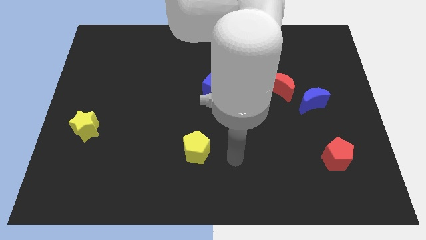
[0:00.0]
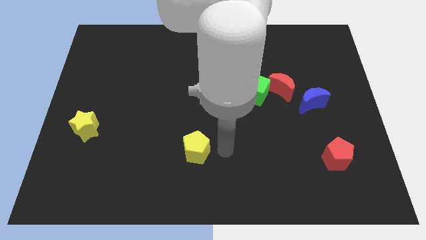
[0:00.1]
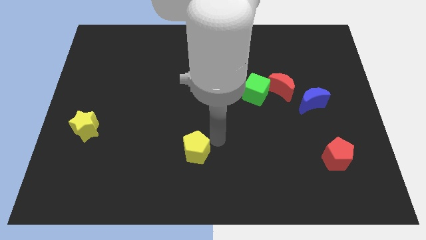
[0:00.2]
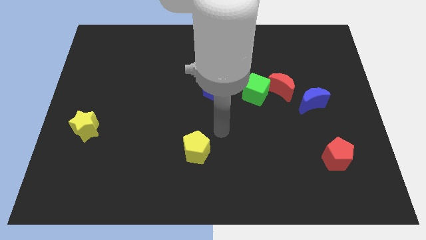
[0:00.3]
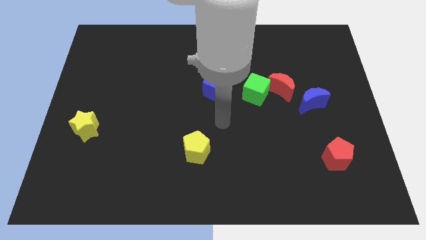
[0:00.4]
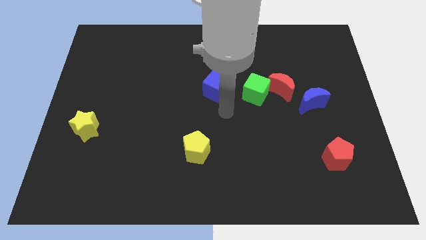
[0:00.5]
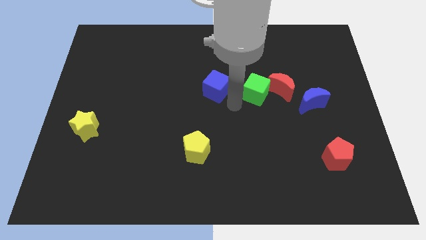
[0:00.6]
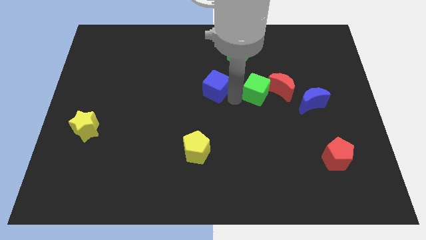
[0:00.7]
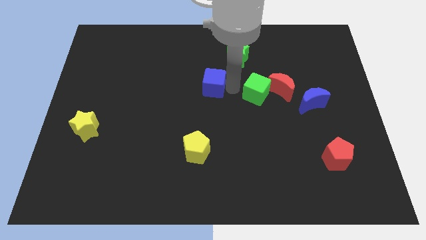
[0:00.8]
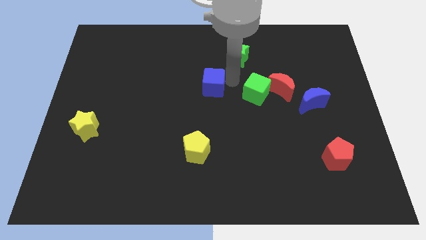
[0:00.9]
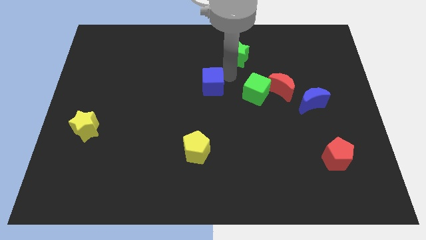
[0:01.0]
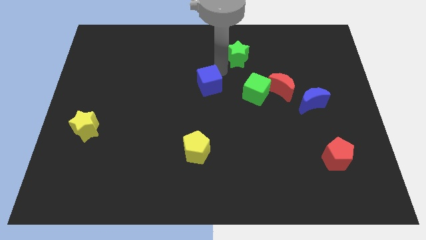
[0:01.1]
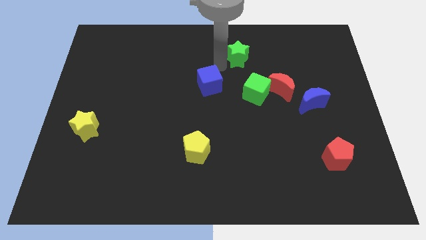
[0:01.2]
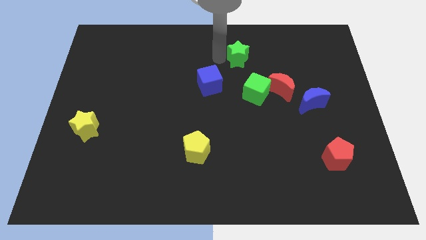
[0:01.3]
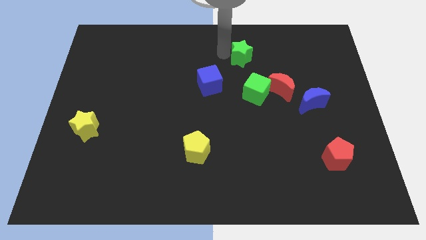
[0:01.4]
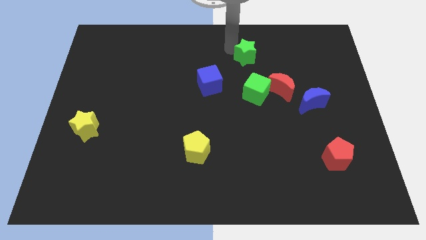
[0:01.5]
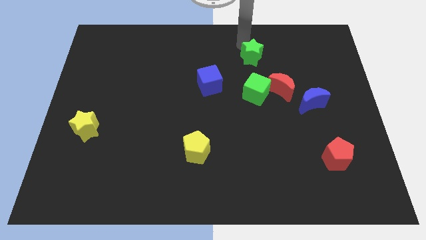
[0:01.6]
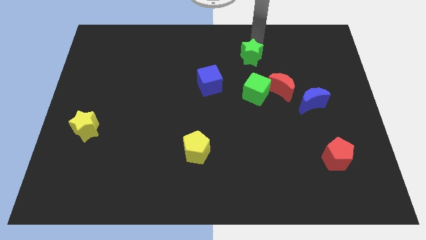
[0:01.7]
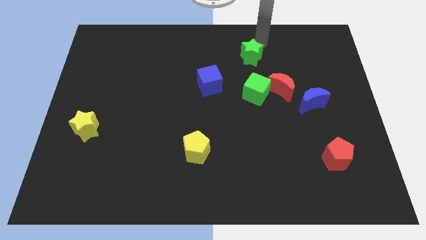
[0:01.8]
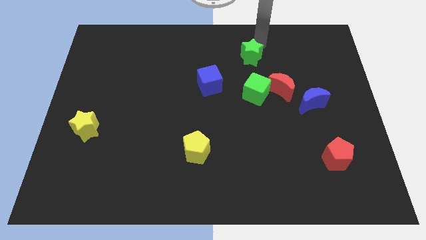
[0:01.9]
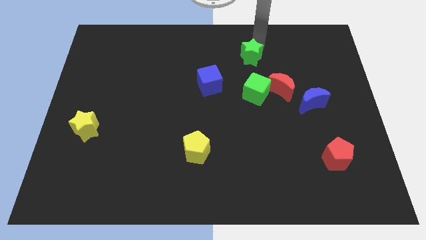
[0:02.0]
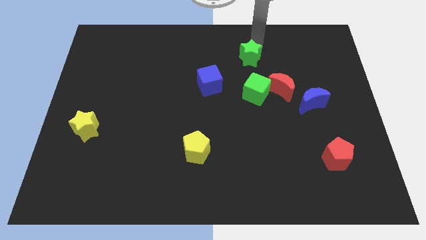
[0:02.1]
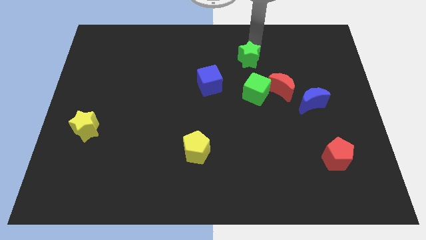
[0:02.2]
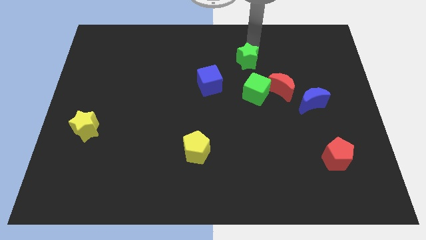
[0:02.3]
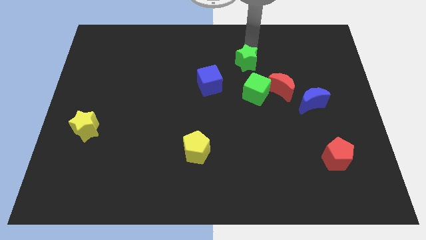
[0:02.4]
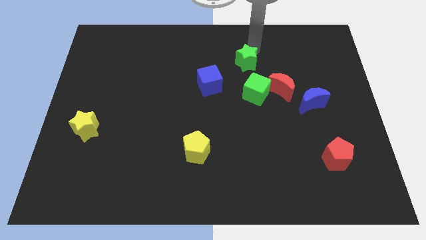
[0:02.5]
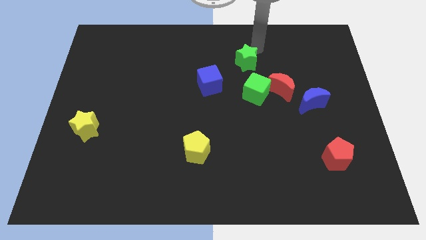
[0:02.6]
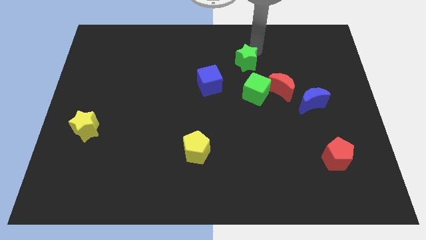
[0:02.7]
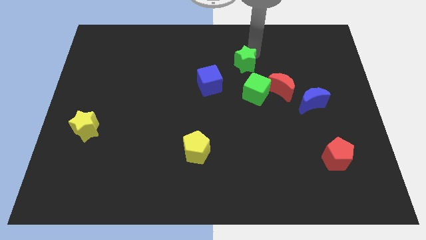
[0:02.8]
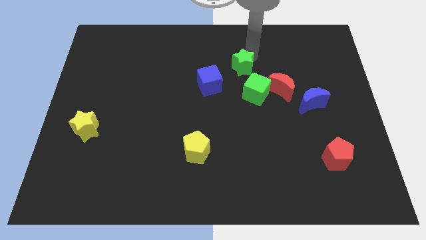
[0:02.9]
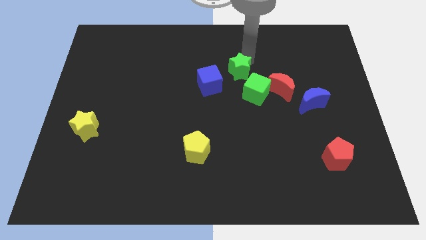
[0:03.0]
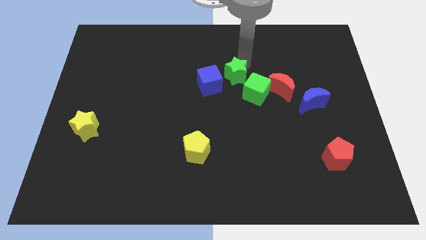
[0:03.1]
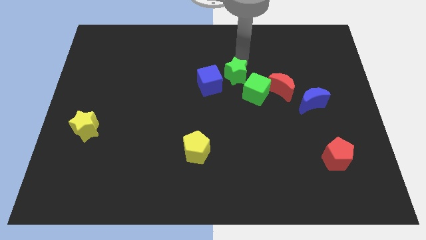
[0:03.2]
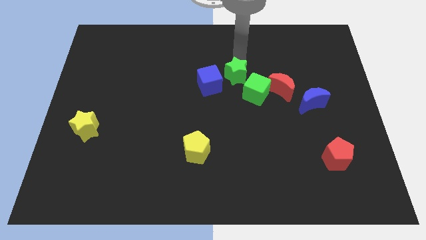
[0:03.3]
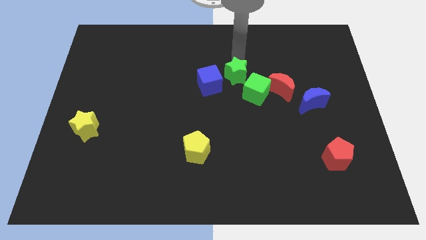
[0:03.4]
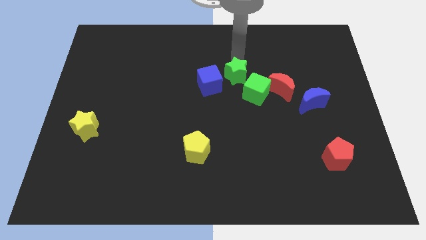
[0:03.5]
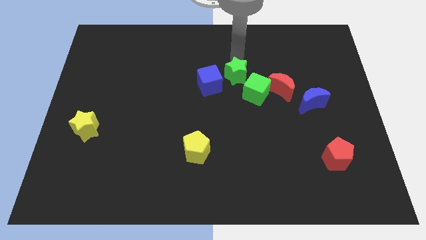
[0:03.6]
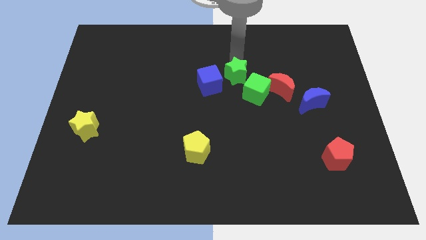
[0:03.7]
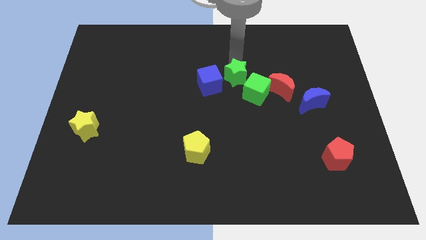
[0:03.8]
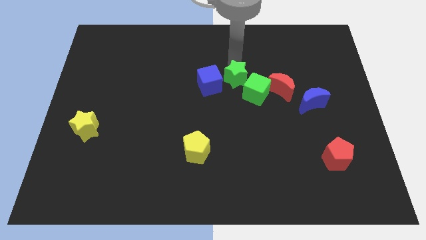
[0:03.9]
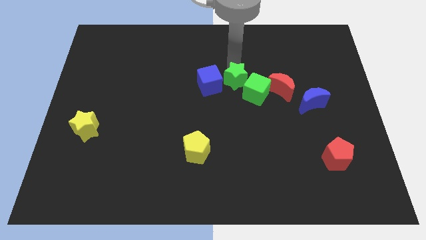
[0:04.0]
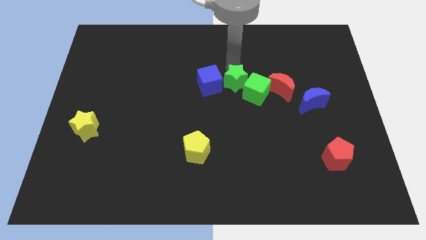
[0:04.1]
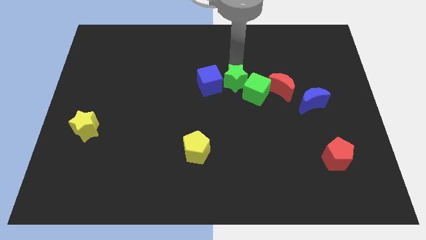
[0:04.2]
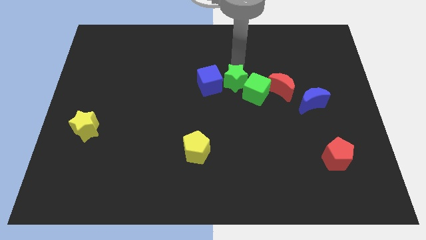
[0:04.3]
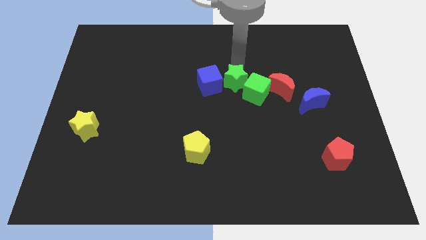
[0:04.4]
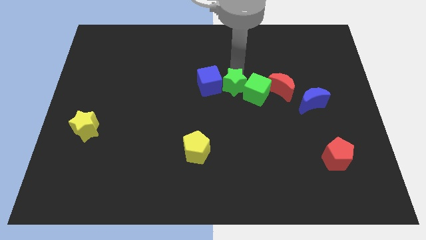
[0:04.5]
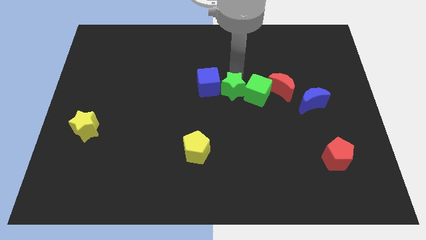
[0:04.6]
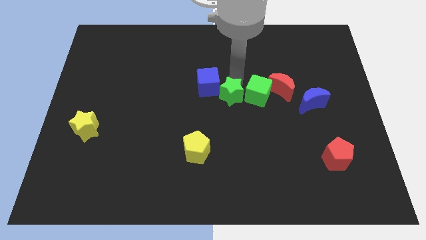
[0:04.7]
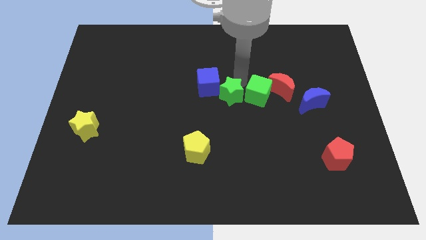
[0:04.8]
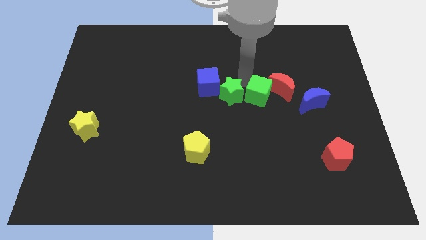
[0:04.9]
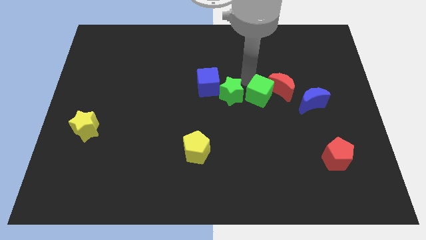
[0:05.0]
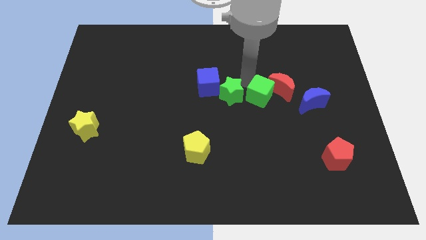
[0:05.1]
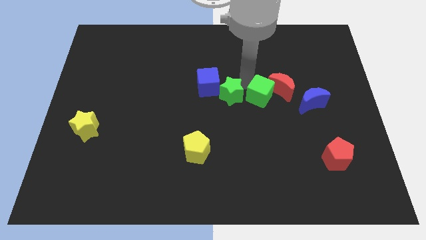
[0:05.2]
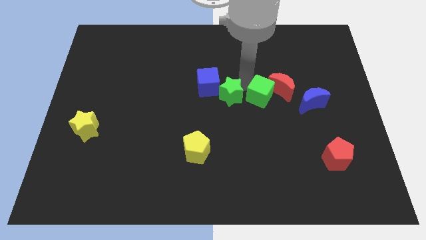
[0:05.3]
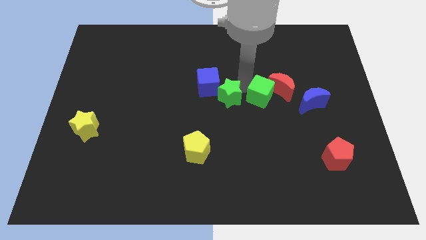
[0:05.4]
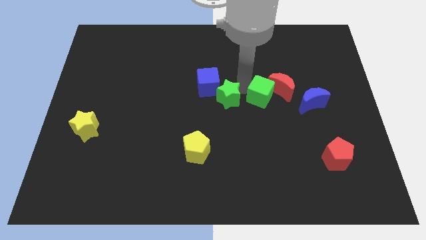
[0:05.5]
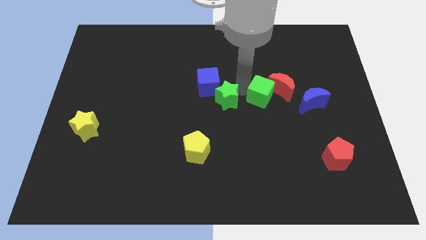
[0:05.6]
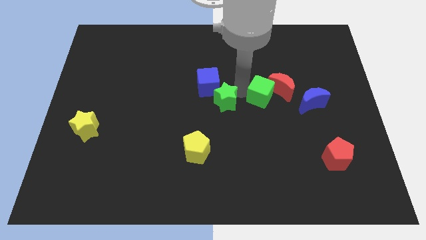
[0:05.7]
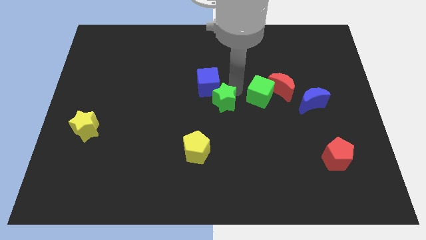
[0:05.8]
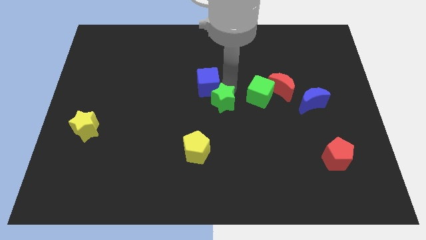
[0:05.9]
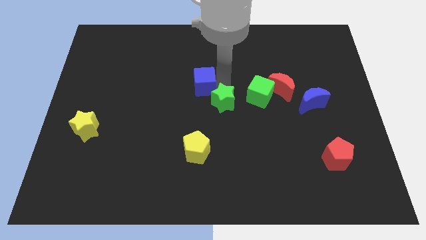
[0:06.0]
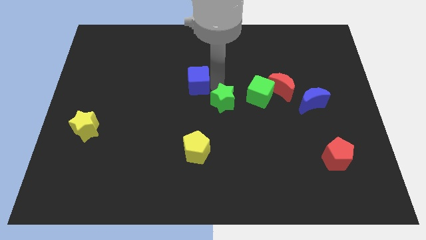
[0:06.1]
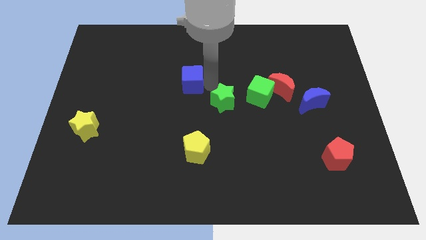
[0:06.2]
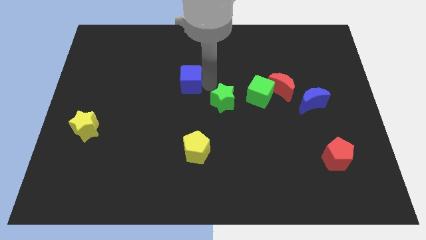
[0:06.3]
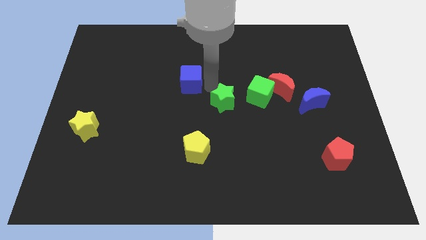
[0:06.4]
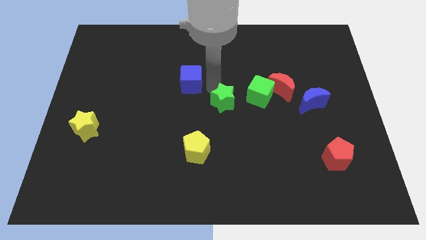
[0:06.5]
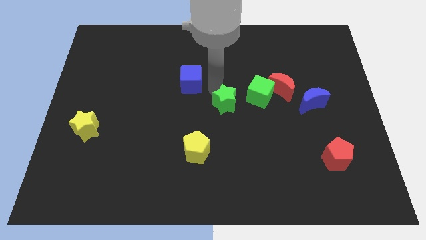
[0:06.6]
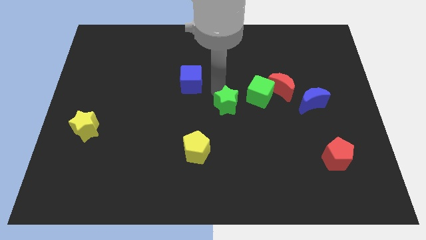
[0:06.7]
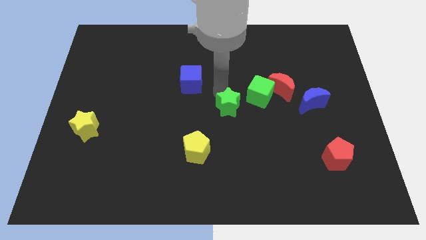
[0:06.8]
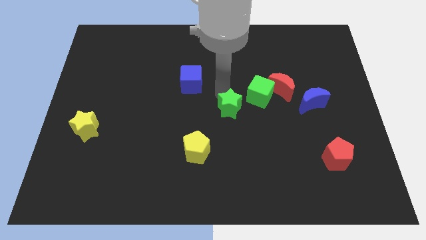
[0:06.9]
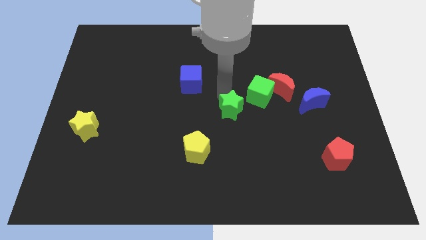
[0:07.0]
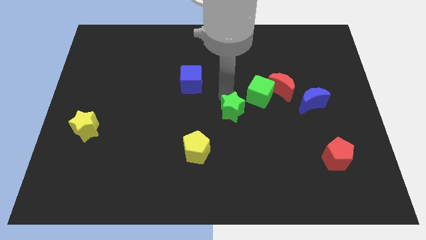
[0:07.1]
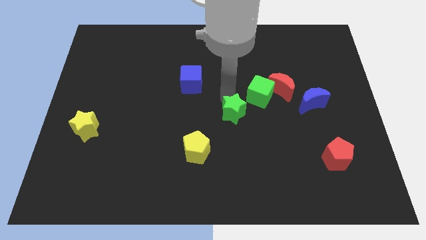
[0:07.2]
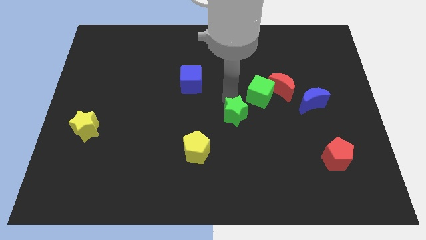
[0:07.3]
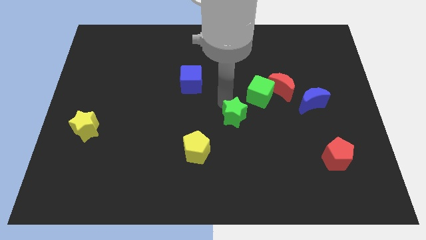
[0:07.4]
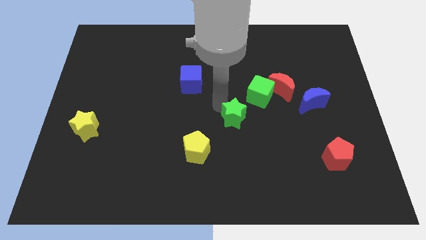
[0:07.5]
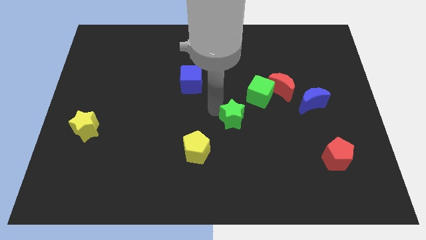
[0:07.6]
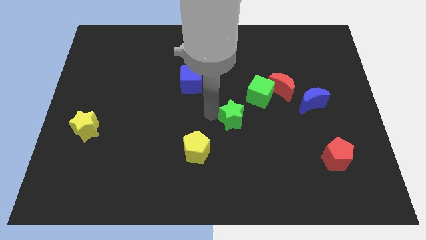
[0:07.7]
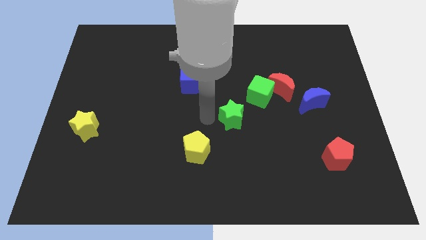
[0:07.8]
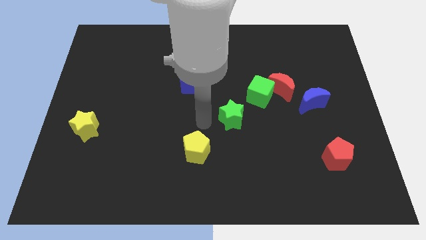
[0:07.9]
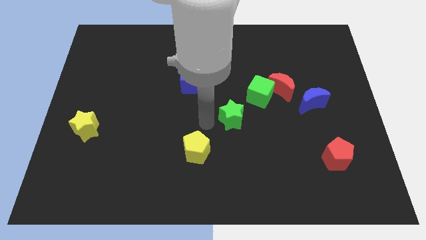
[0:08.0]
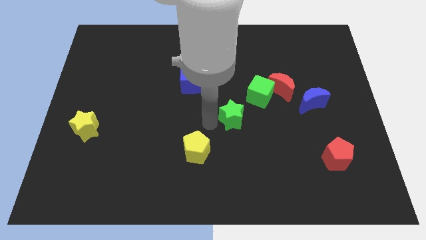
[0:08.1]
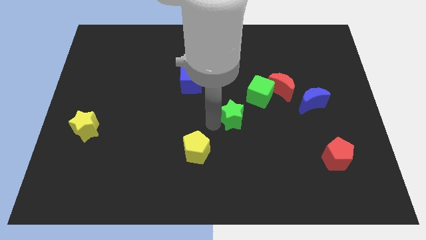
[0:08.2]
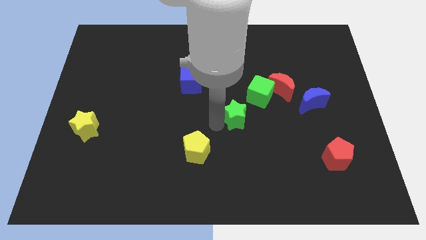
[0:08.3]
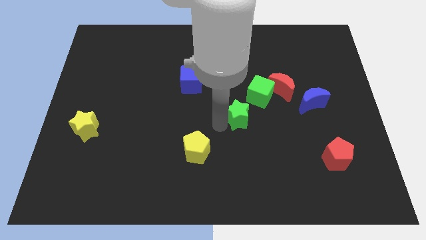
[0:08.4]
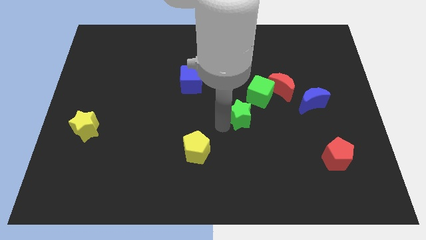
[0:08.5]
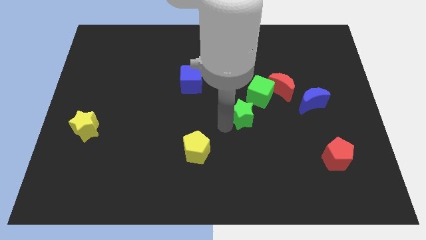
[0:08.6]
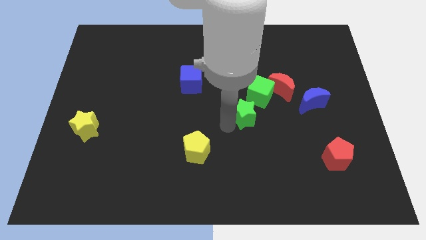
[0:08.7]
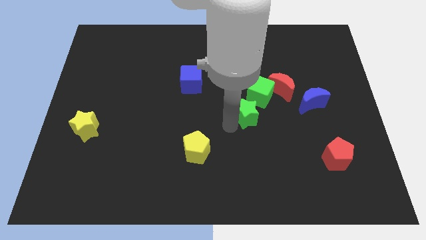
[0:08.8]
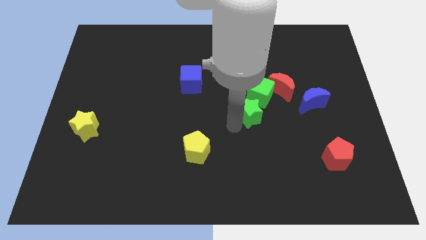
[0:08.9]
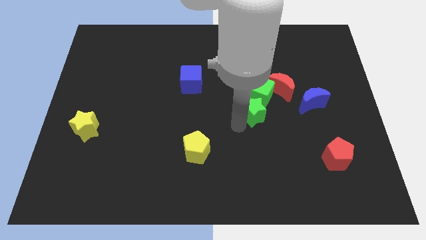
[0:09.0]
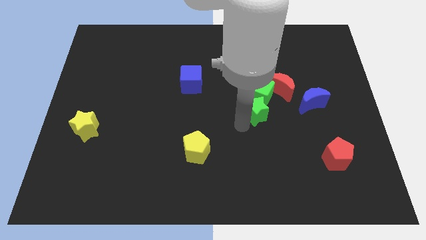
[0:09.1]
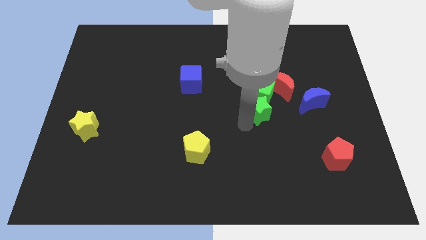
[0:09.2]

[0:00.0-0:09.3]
push the green star diagonally down and to the right of the green cube
